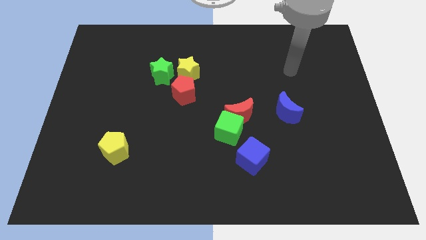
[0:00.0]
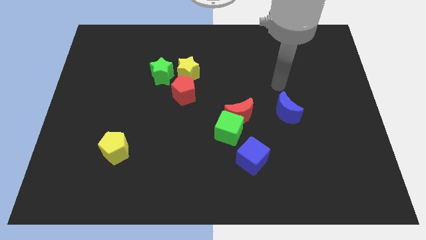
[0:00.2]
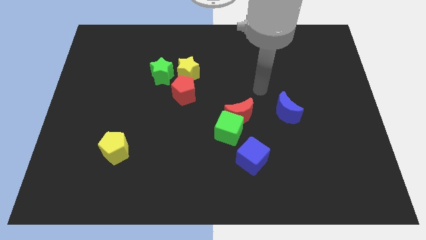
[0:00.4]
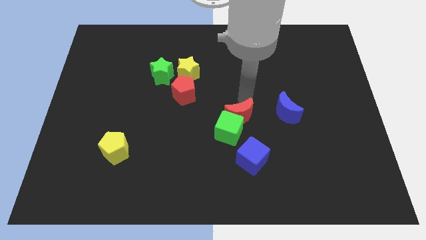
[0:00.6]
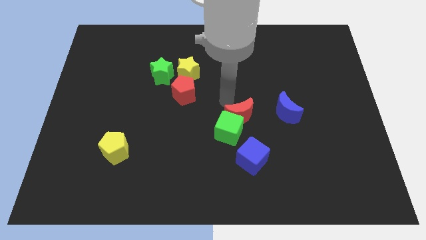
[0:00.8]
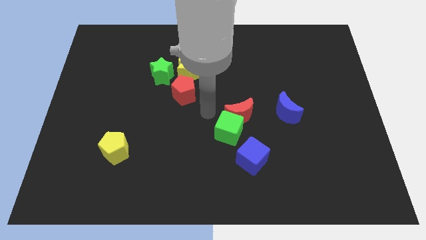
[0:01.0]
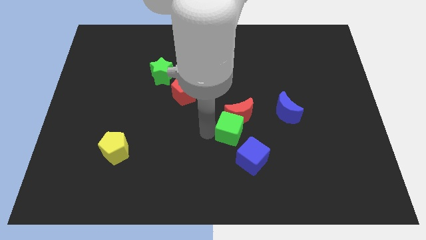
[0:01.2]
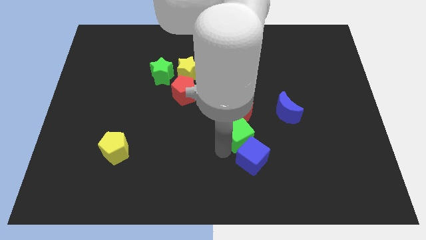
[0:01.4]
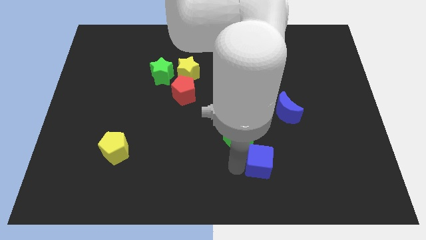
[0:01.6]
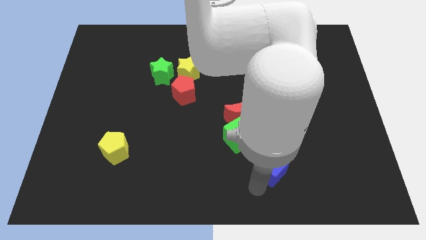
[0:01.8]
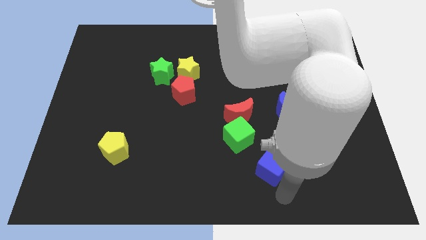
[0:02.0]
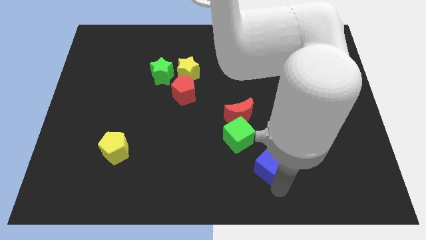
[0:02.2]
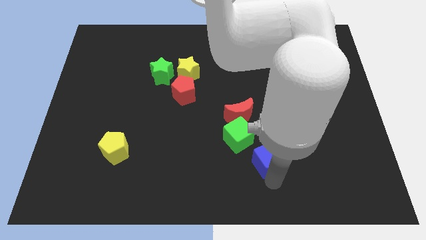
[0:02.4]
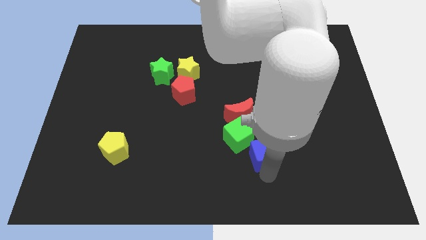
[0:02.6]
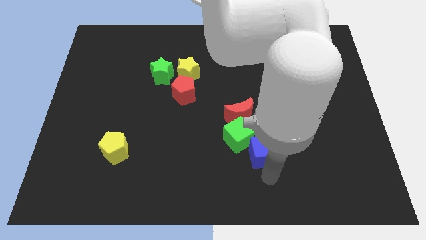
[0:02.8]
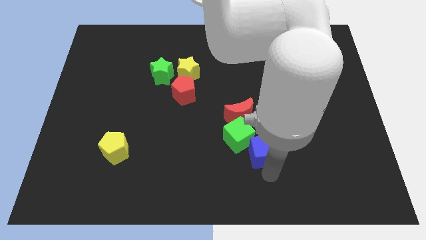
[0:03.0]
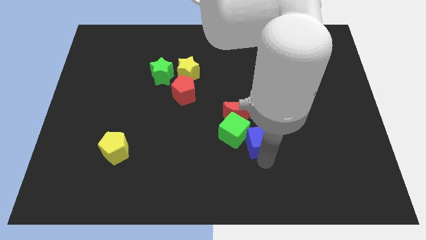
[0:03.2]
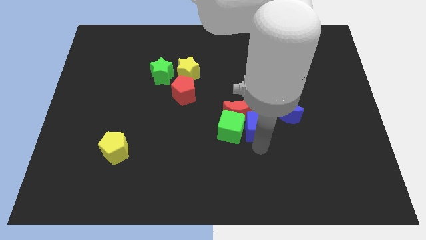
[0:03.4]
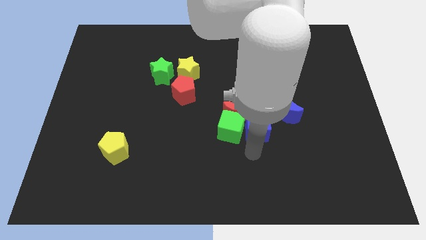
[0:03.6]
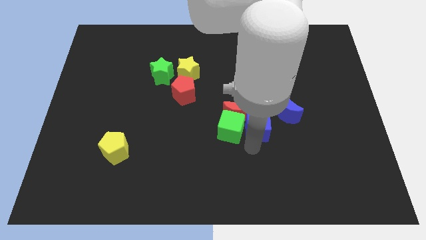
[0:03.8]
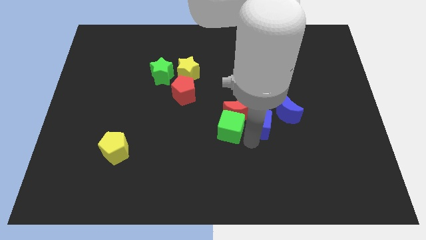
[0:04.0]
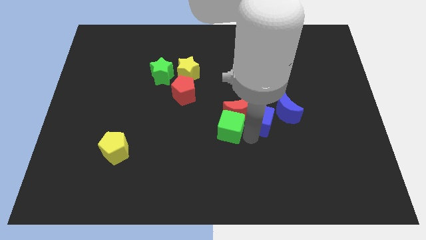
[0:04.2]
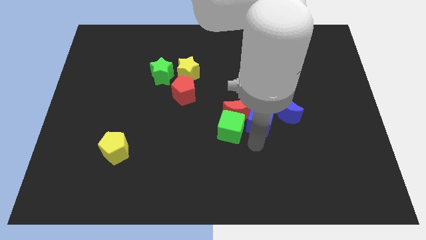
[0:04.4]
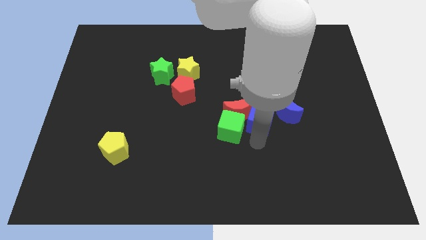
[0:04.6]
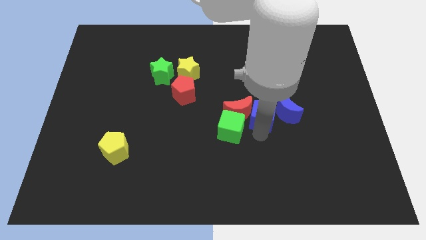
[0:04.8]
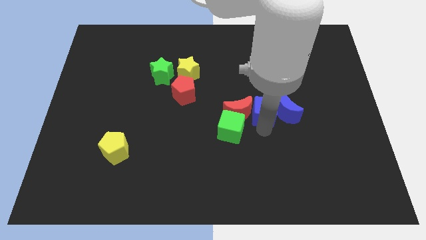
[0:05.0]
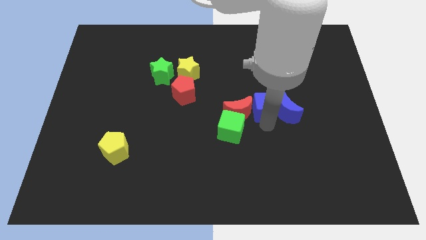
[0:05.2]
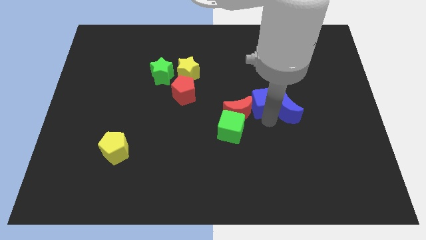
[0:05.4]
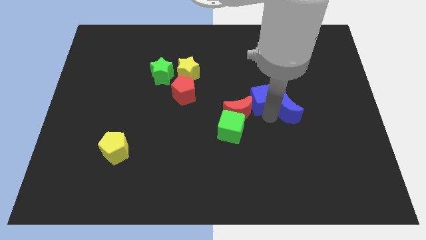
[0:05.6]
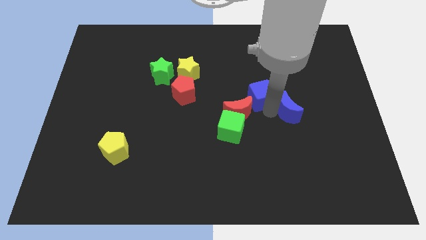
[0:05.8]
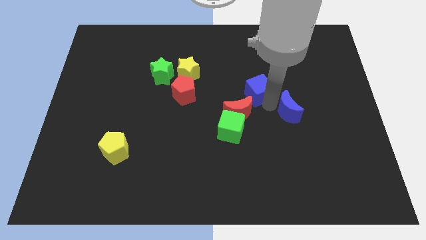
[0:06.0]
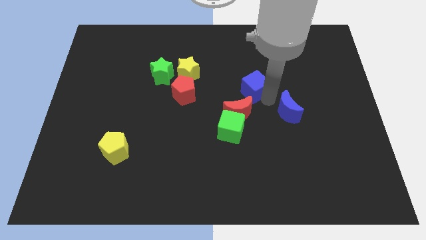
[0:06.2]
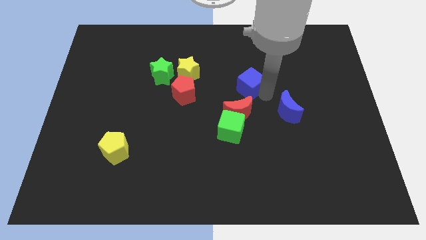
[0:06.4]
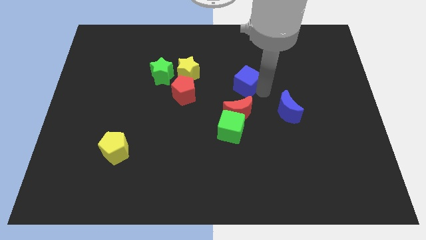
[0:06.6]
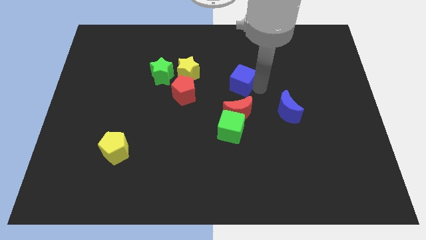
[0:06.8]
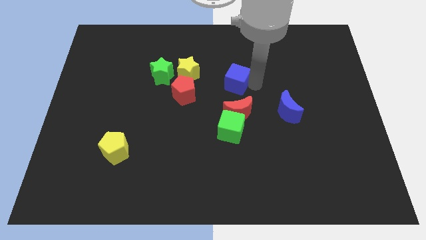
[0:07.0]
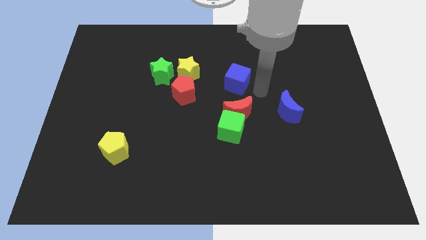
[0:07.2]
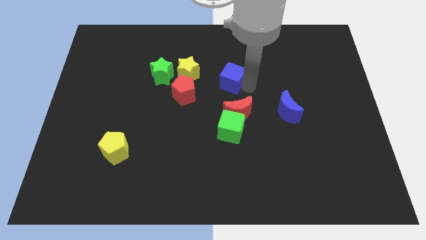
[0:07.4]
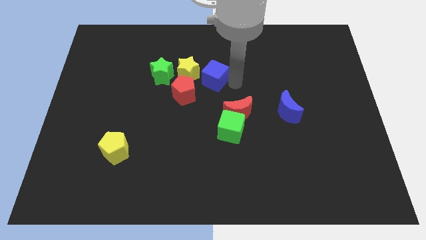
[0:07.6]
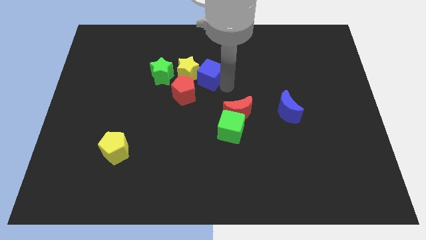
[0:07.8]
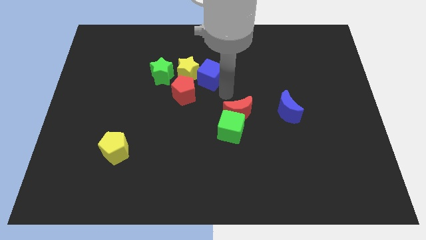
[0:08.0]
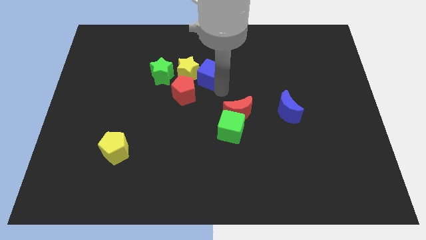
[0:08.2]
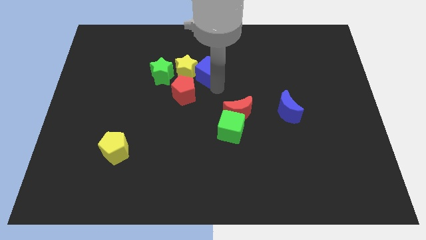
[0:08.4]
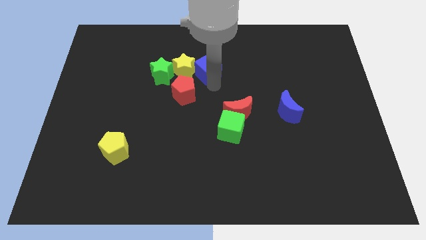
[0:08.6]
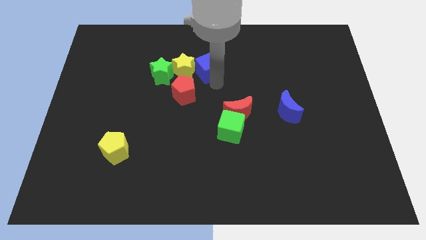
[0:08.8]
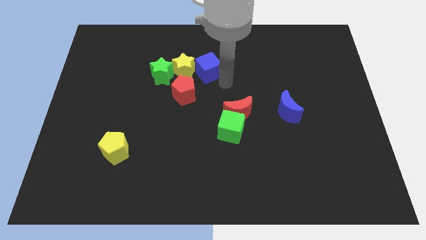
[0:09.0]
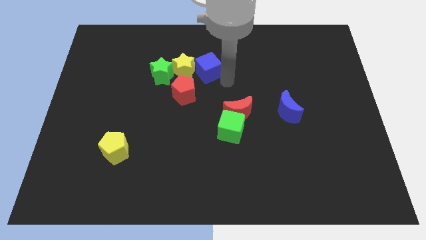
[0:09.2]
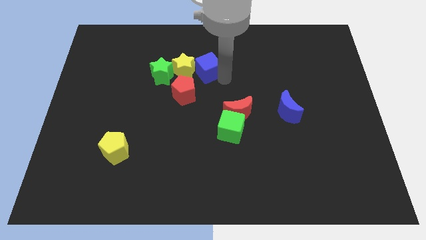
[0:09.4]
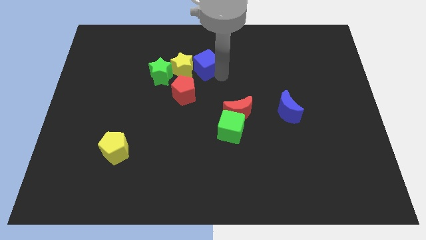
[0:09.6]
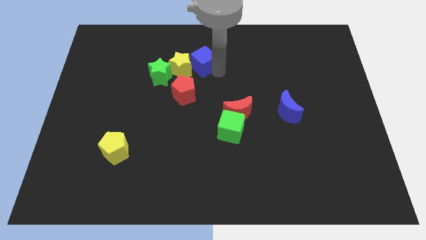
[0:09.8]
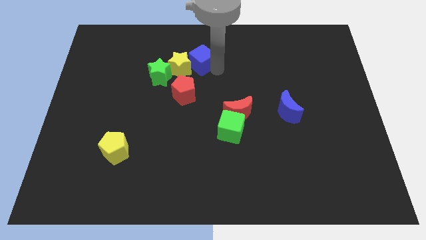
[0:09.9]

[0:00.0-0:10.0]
move the blue cube to the top right of the green star

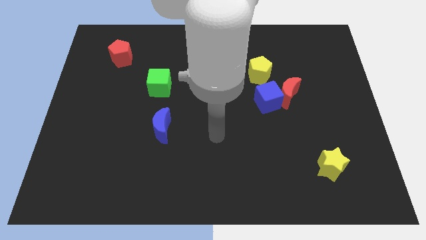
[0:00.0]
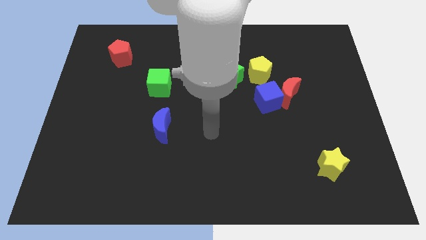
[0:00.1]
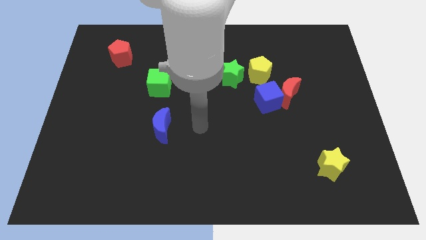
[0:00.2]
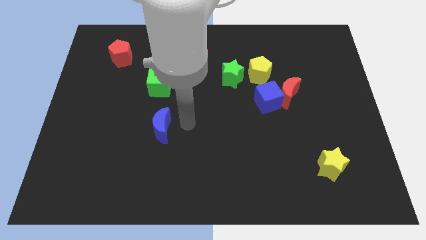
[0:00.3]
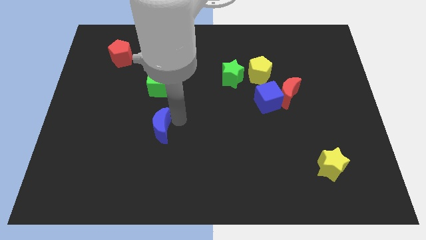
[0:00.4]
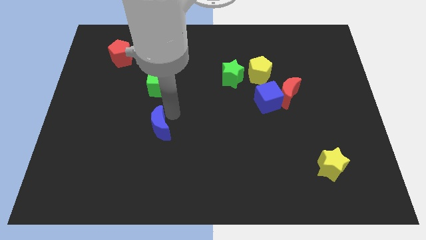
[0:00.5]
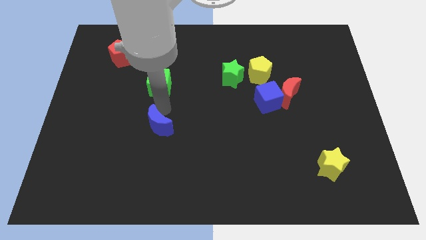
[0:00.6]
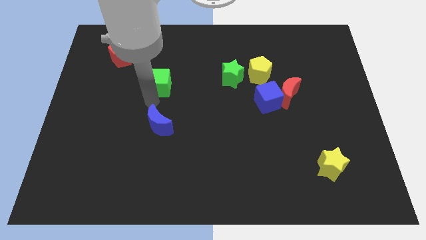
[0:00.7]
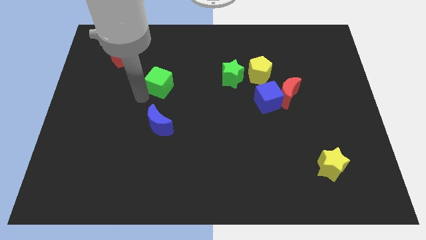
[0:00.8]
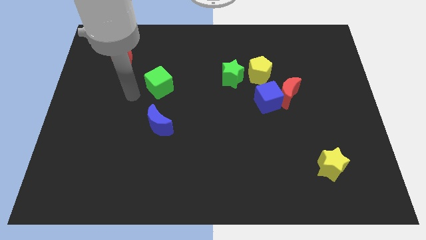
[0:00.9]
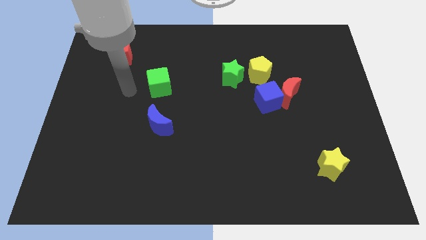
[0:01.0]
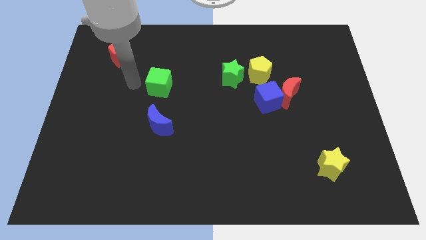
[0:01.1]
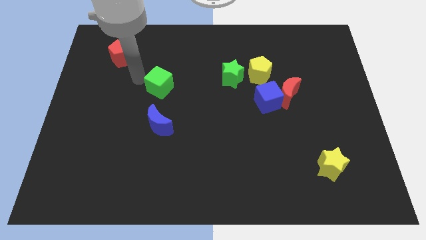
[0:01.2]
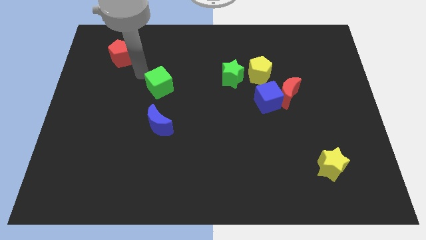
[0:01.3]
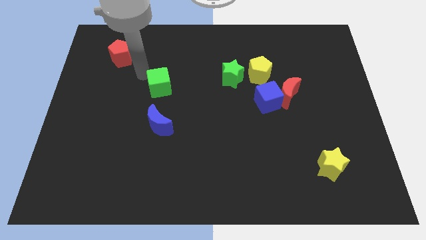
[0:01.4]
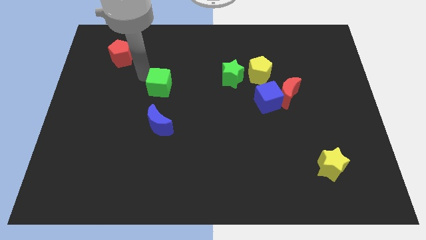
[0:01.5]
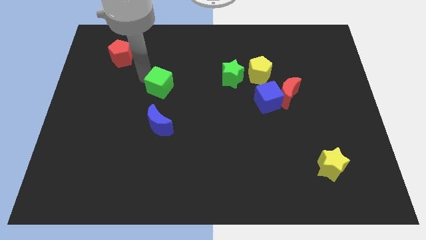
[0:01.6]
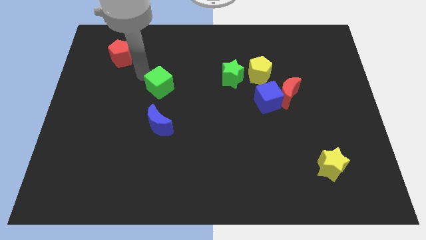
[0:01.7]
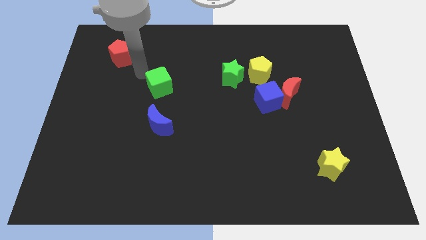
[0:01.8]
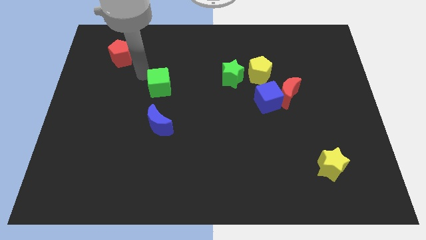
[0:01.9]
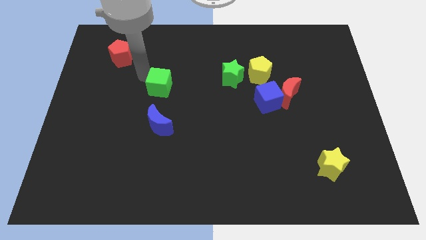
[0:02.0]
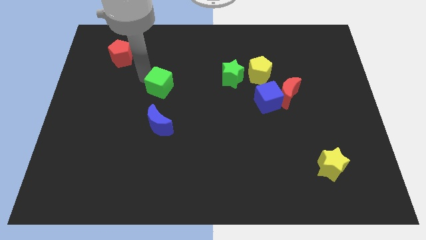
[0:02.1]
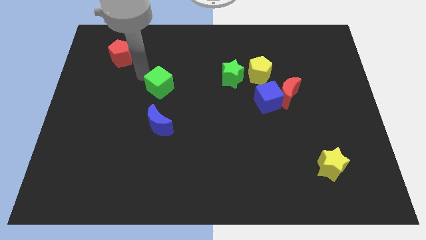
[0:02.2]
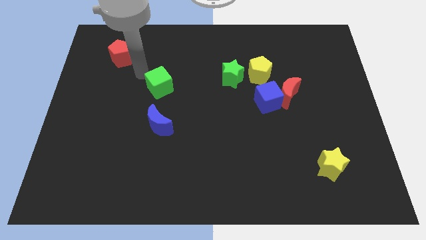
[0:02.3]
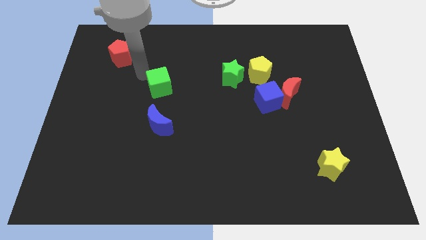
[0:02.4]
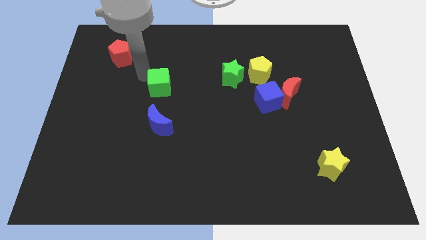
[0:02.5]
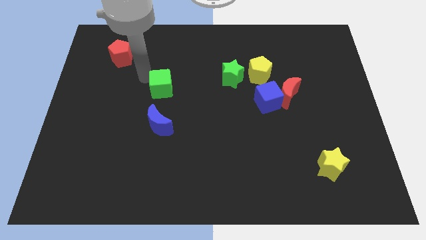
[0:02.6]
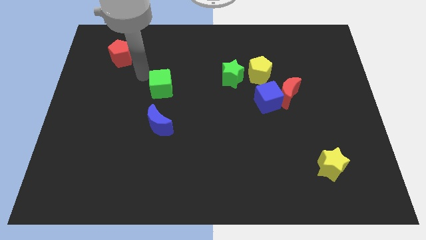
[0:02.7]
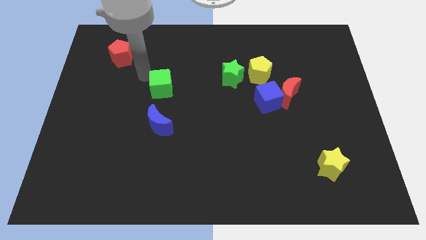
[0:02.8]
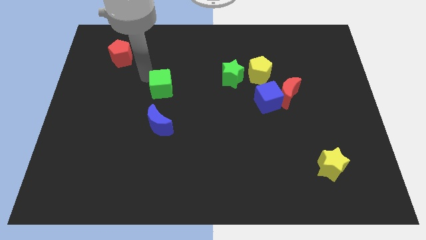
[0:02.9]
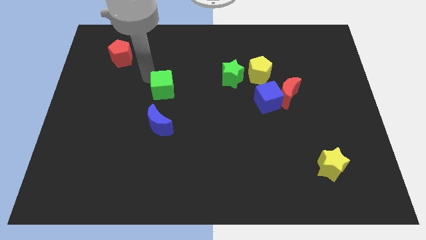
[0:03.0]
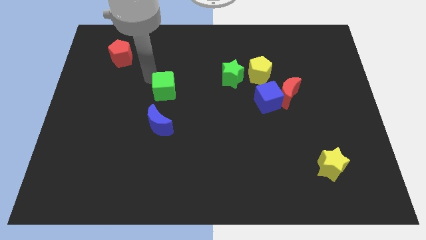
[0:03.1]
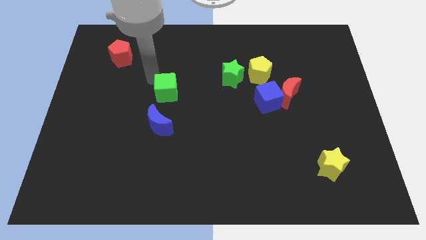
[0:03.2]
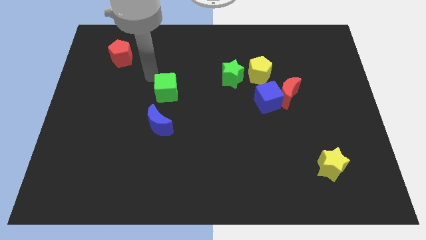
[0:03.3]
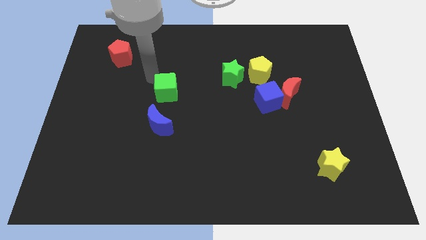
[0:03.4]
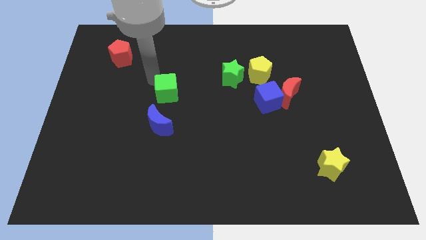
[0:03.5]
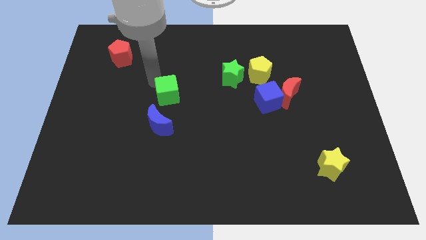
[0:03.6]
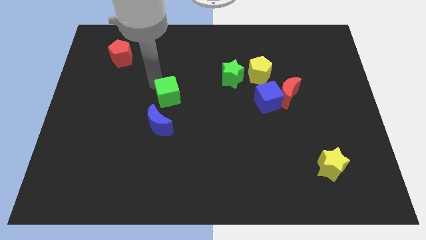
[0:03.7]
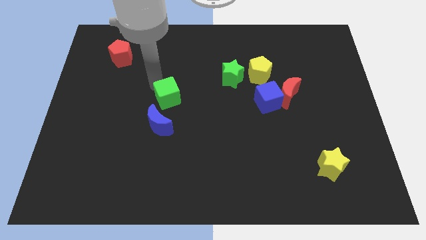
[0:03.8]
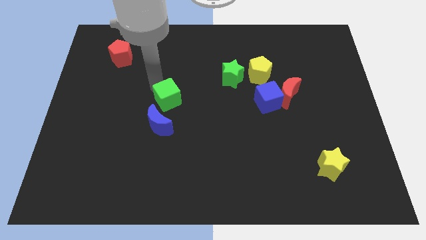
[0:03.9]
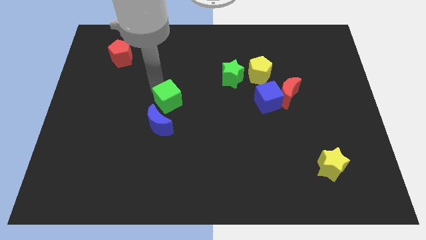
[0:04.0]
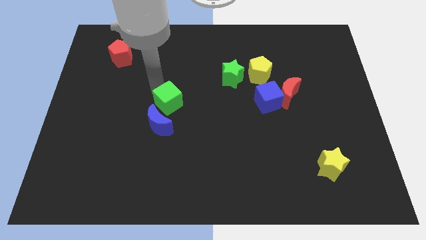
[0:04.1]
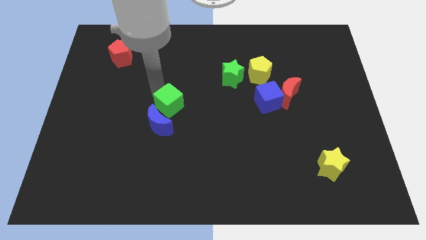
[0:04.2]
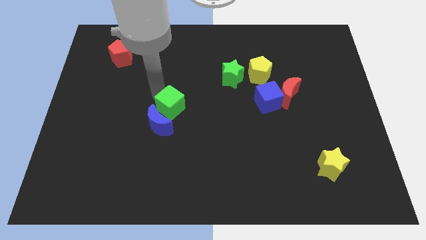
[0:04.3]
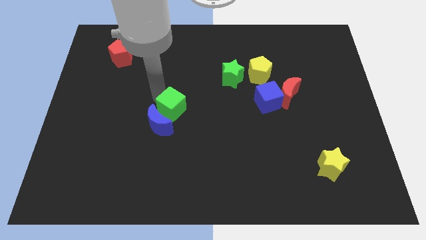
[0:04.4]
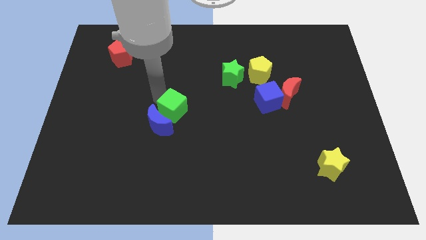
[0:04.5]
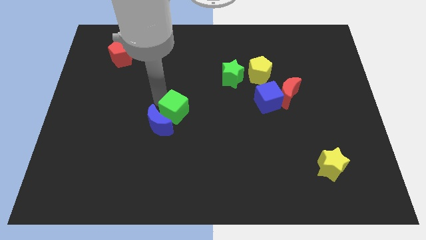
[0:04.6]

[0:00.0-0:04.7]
push the green cube to the right of the blue moon
